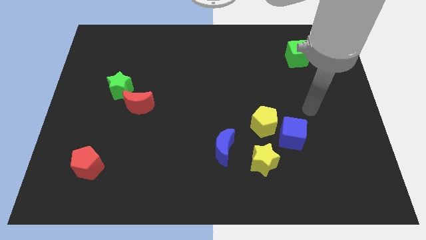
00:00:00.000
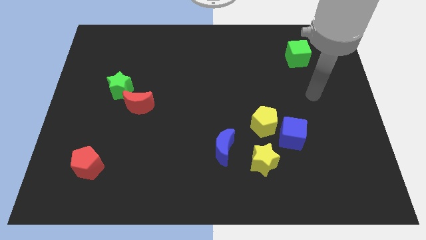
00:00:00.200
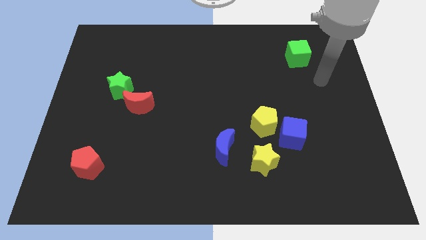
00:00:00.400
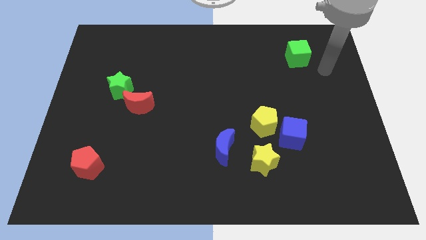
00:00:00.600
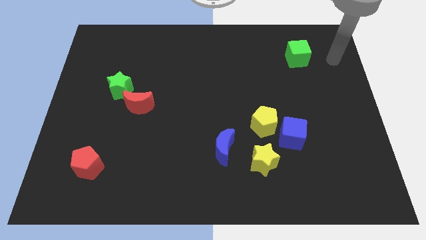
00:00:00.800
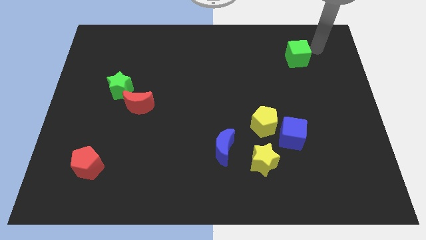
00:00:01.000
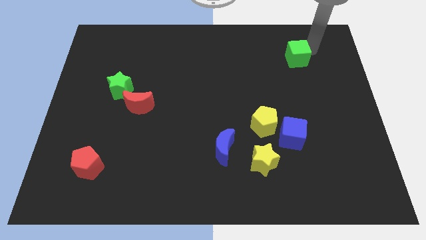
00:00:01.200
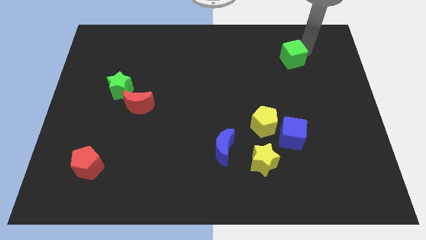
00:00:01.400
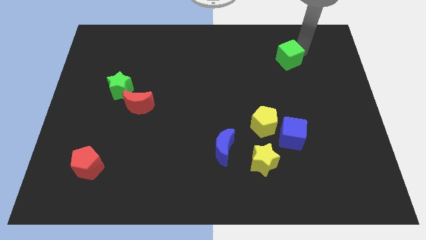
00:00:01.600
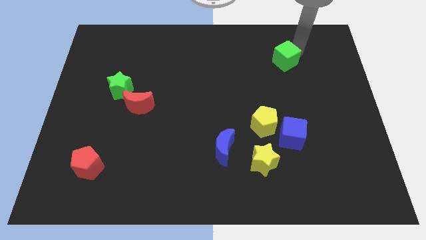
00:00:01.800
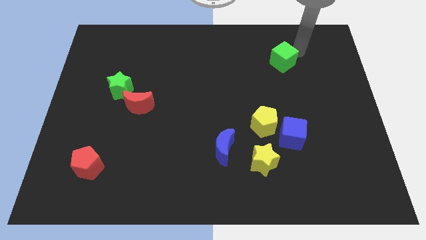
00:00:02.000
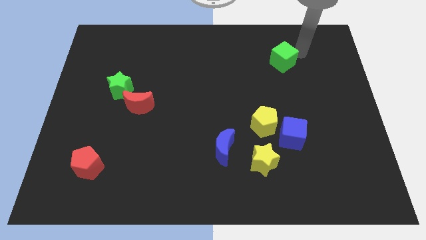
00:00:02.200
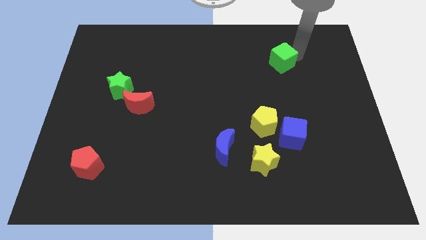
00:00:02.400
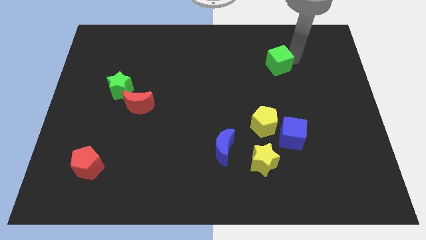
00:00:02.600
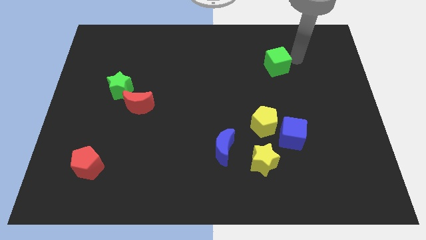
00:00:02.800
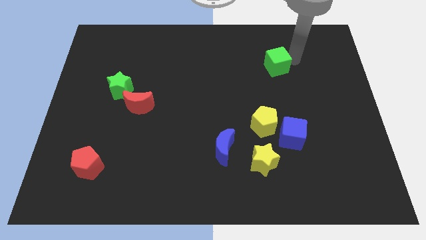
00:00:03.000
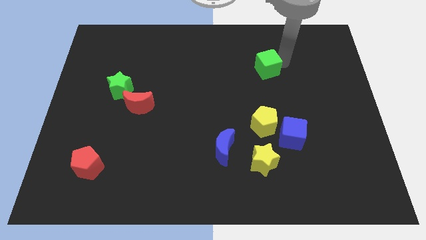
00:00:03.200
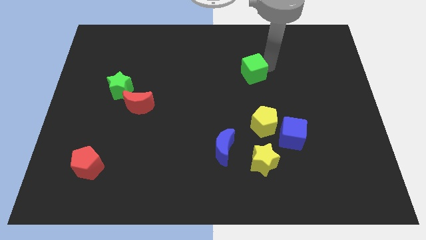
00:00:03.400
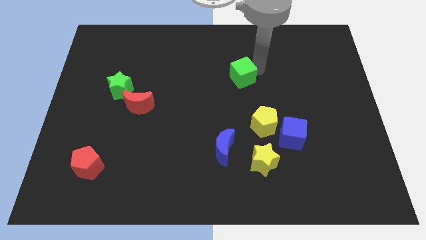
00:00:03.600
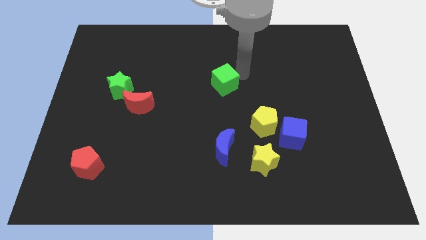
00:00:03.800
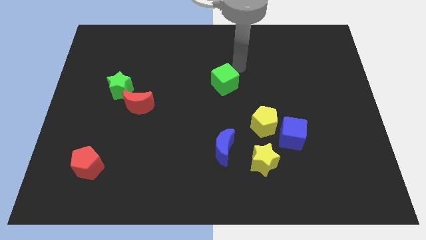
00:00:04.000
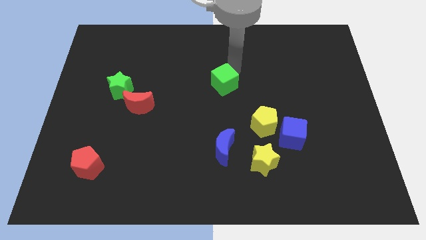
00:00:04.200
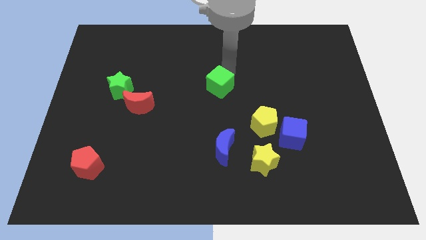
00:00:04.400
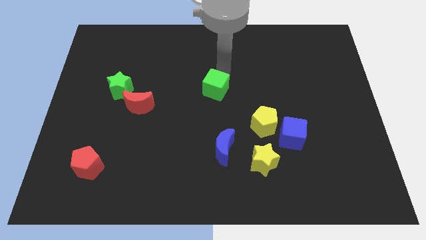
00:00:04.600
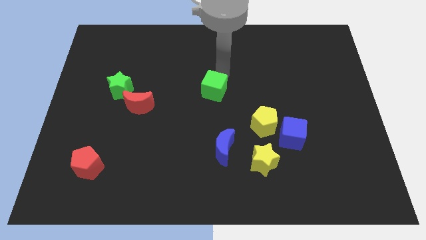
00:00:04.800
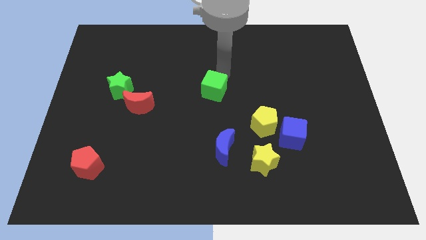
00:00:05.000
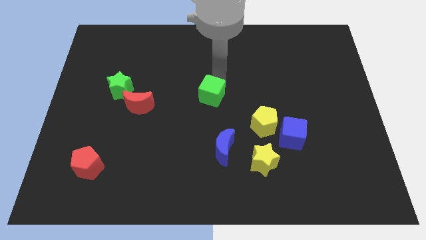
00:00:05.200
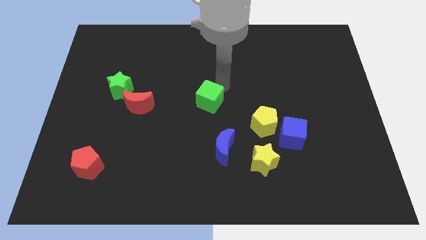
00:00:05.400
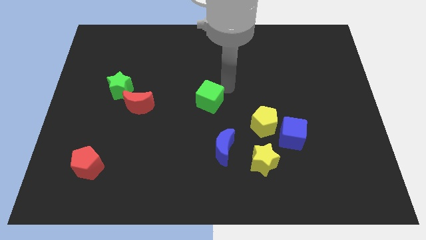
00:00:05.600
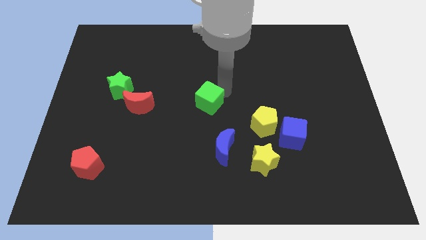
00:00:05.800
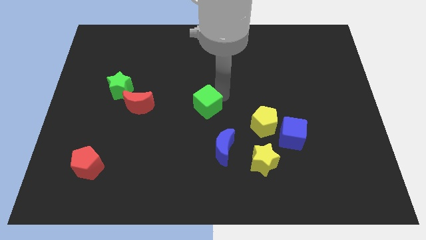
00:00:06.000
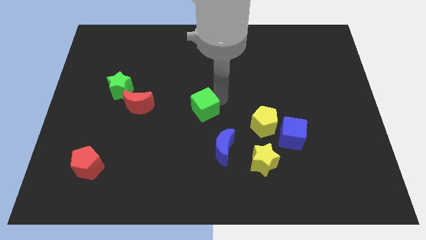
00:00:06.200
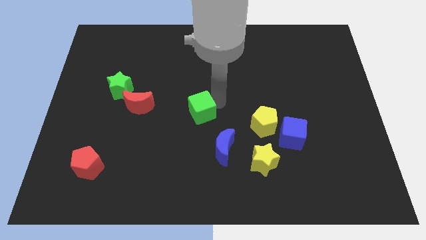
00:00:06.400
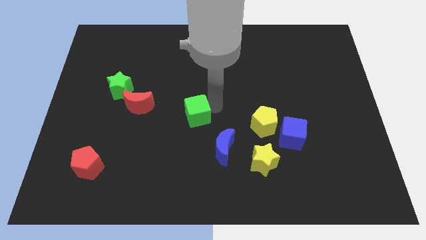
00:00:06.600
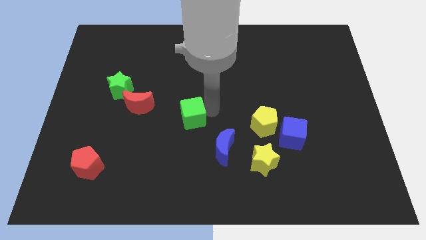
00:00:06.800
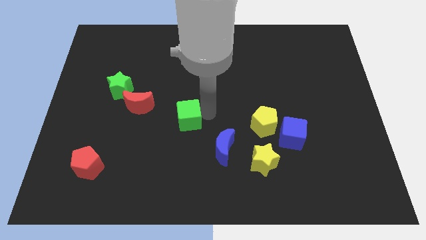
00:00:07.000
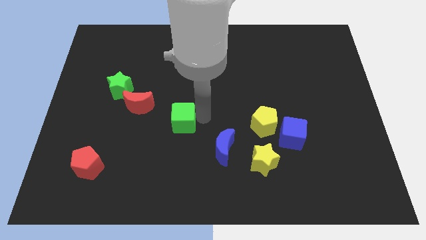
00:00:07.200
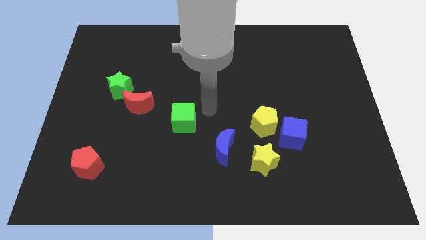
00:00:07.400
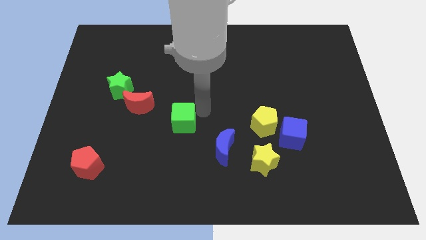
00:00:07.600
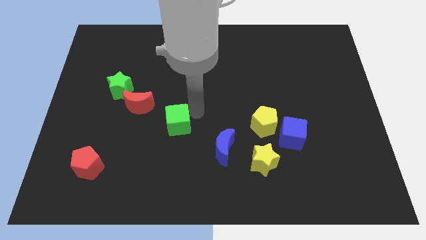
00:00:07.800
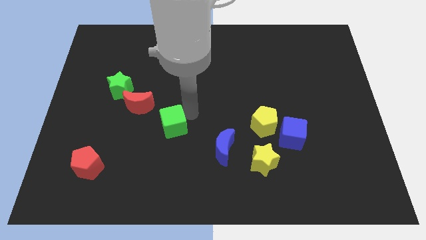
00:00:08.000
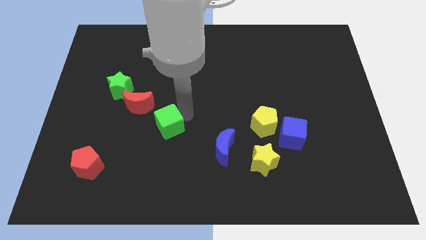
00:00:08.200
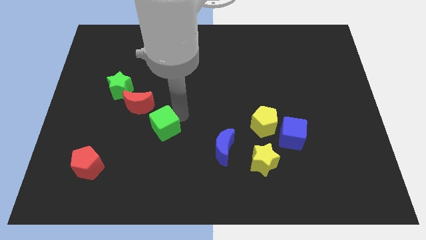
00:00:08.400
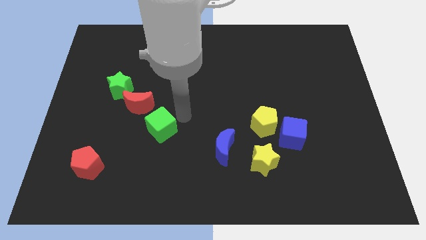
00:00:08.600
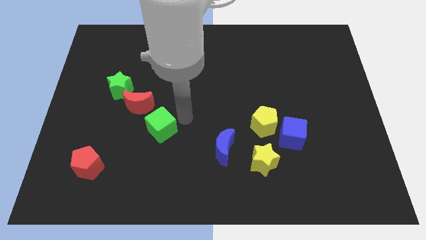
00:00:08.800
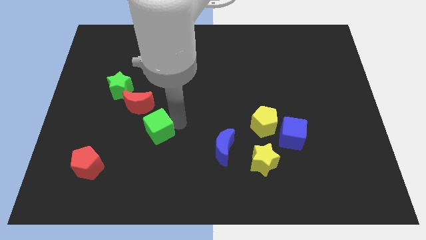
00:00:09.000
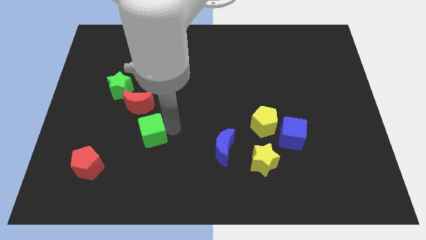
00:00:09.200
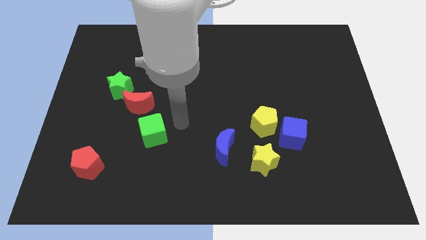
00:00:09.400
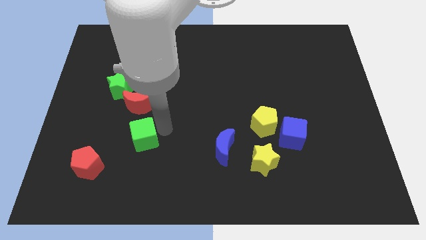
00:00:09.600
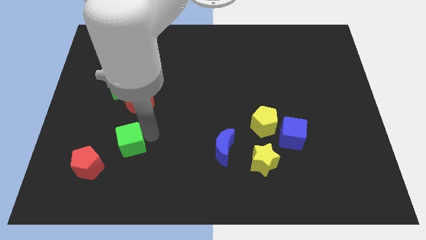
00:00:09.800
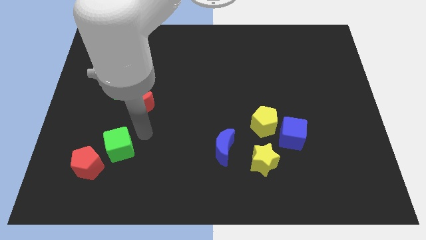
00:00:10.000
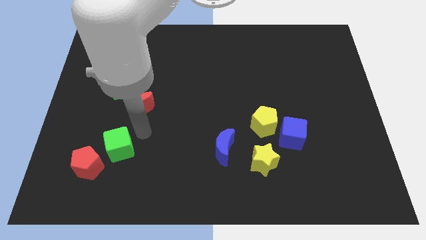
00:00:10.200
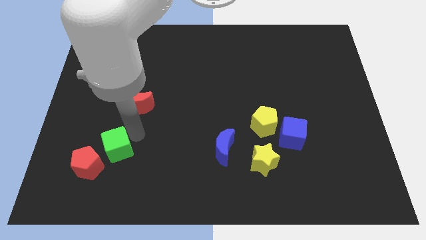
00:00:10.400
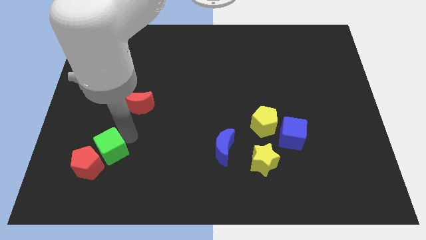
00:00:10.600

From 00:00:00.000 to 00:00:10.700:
move the green cube to the red pentagon

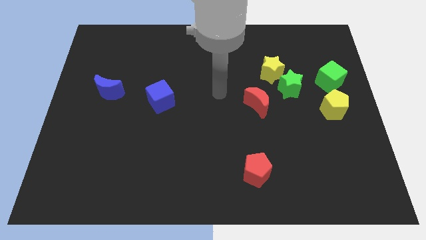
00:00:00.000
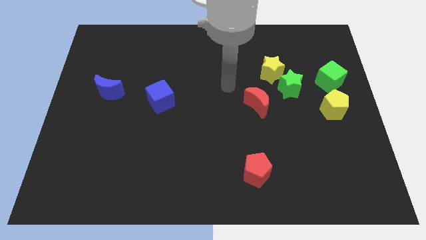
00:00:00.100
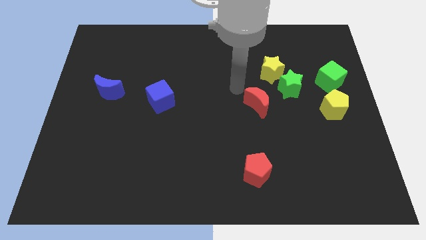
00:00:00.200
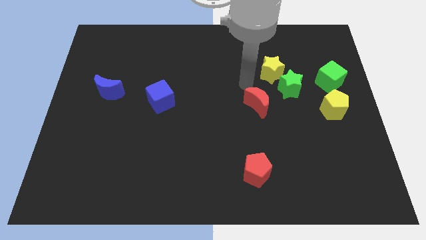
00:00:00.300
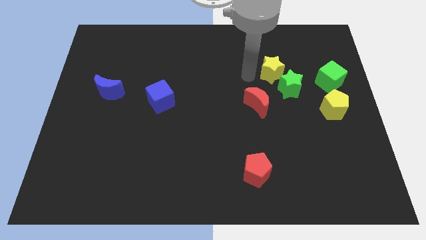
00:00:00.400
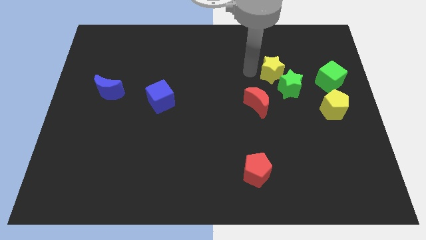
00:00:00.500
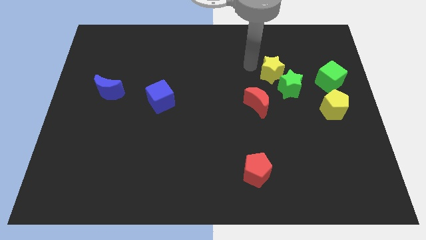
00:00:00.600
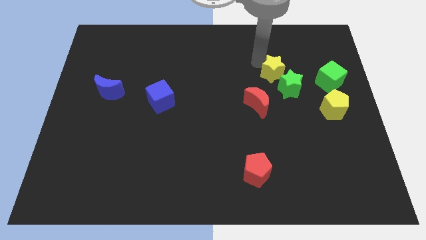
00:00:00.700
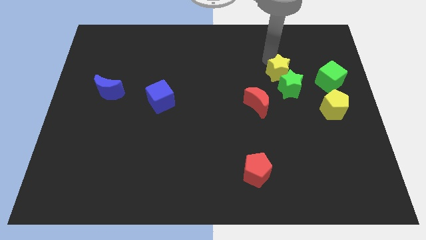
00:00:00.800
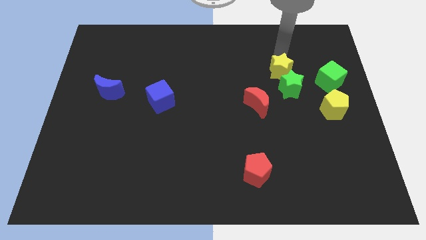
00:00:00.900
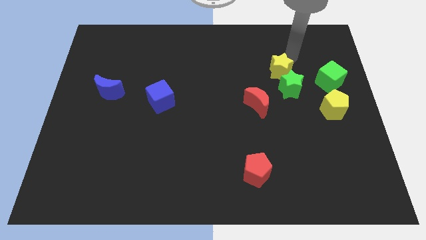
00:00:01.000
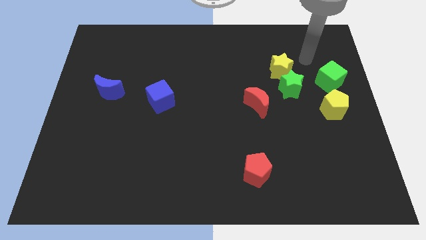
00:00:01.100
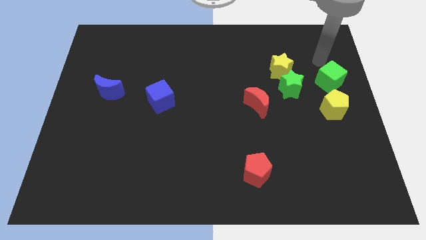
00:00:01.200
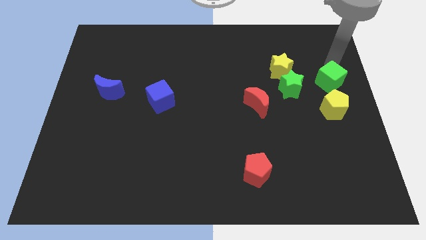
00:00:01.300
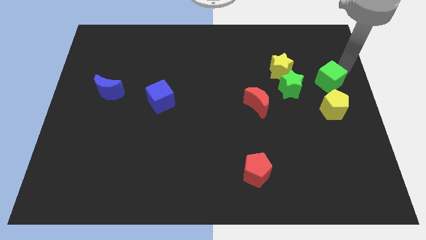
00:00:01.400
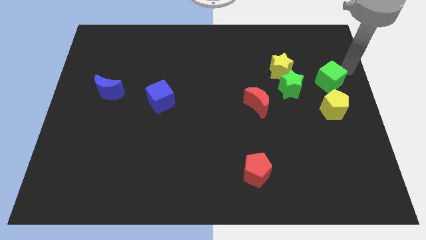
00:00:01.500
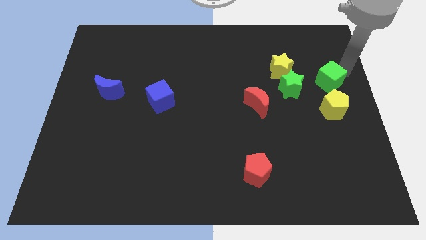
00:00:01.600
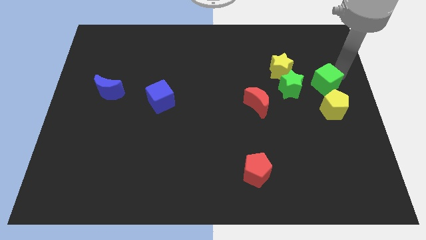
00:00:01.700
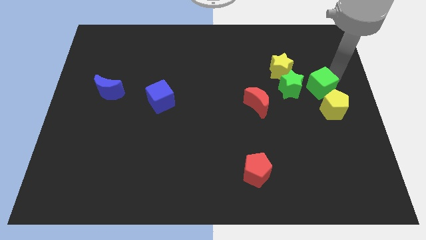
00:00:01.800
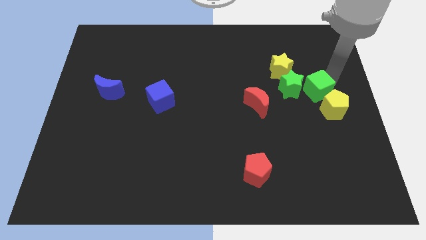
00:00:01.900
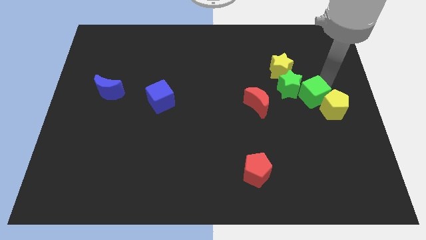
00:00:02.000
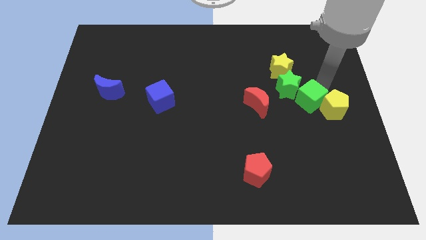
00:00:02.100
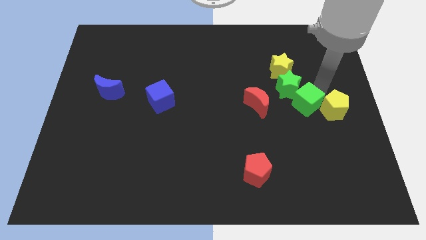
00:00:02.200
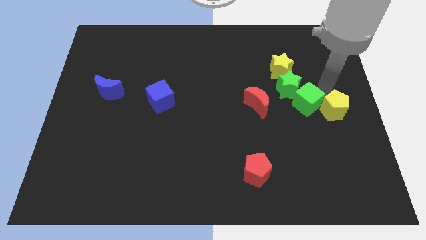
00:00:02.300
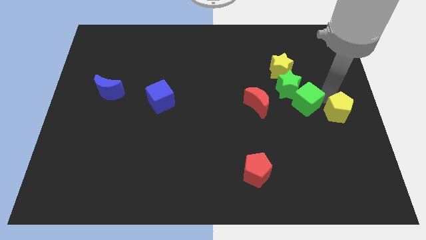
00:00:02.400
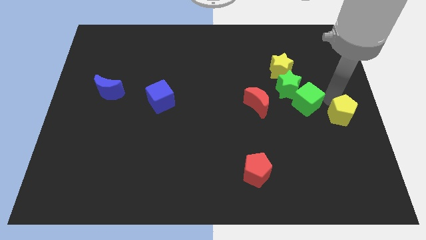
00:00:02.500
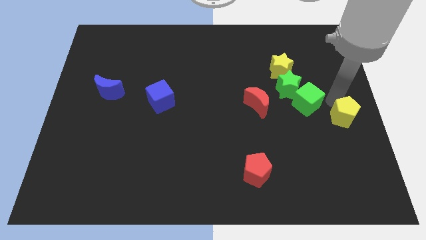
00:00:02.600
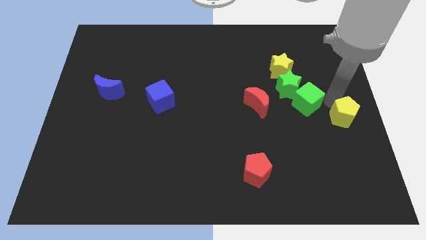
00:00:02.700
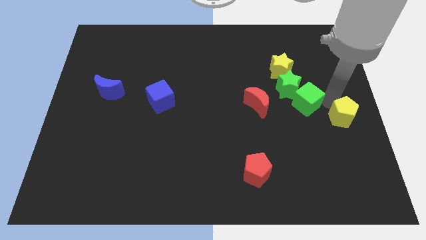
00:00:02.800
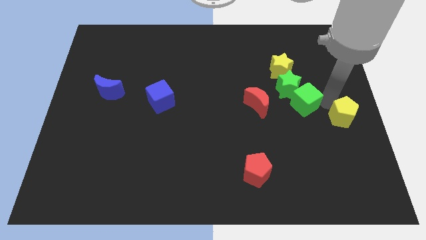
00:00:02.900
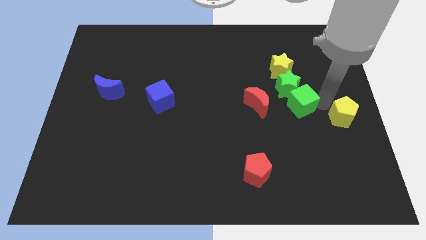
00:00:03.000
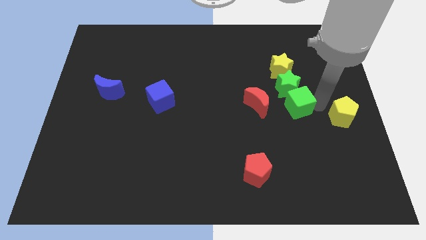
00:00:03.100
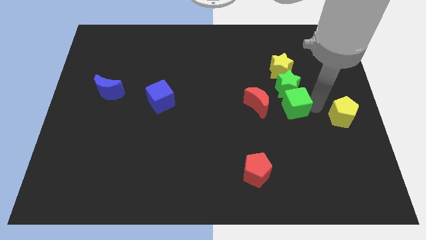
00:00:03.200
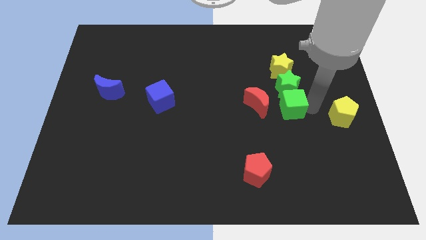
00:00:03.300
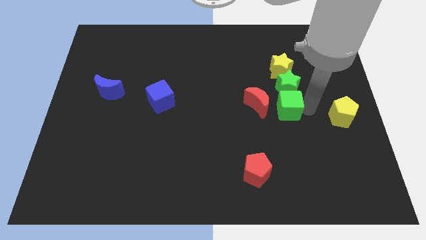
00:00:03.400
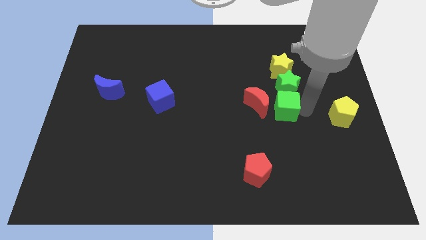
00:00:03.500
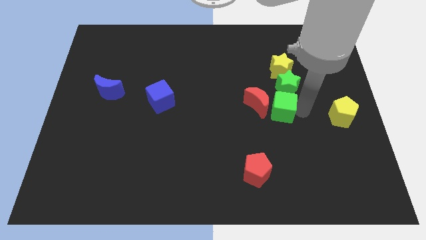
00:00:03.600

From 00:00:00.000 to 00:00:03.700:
push the green cube next to the red moon
